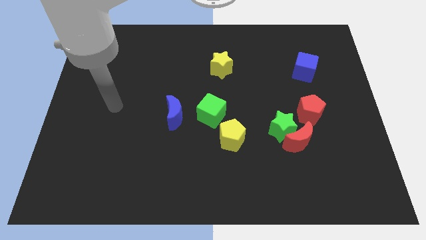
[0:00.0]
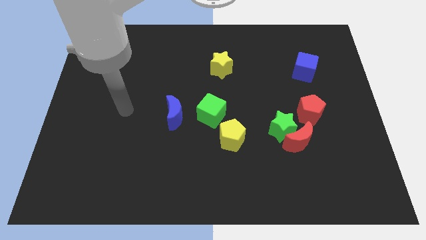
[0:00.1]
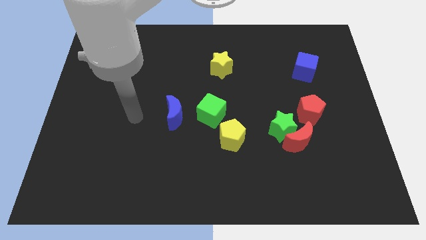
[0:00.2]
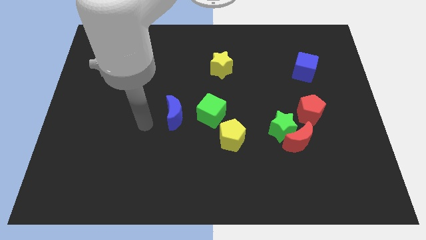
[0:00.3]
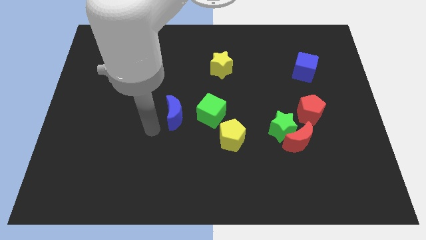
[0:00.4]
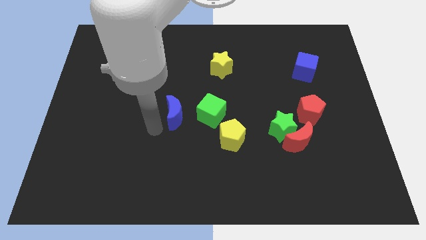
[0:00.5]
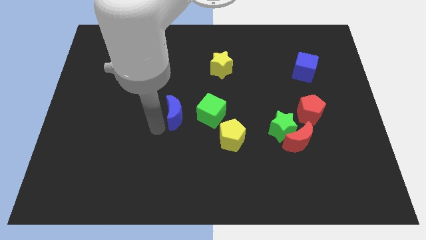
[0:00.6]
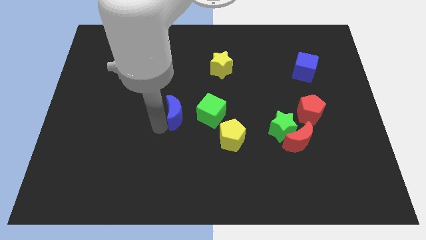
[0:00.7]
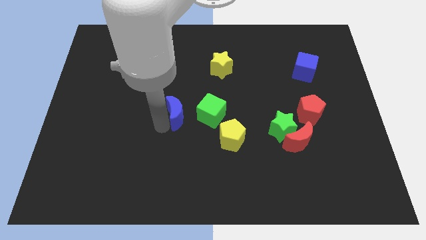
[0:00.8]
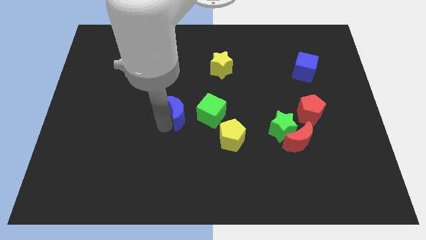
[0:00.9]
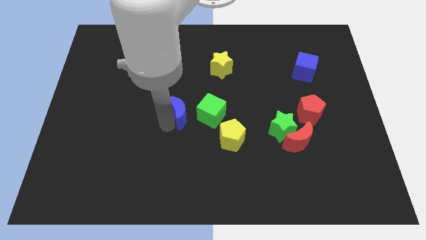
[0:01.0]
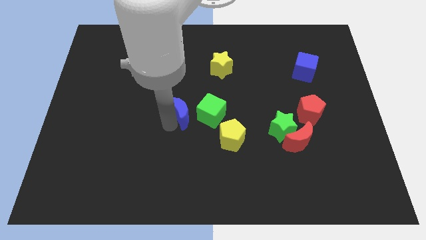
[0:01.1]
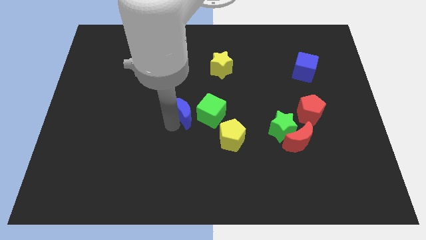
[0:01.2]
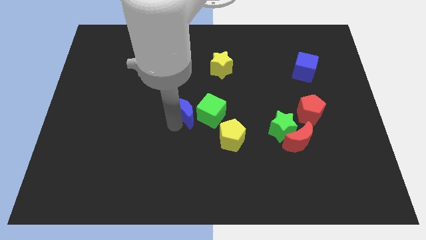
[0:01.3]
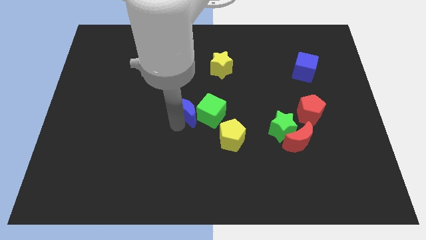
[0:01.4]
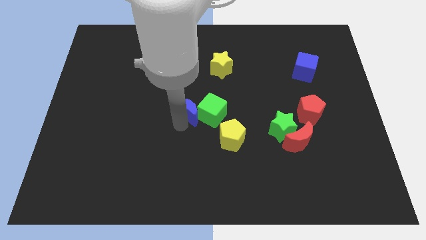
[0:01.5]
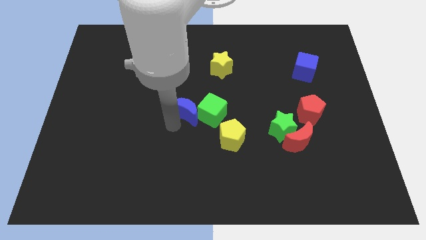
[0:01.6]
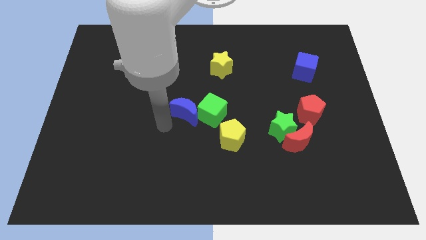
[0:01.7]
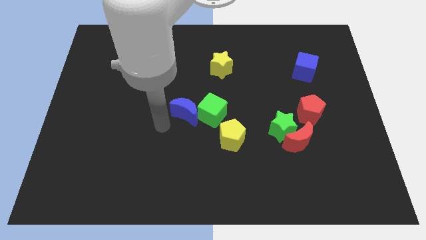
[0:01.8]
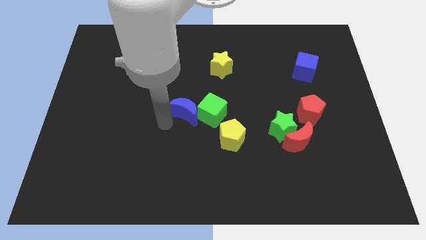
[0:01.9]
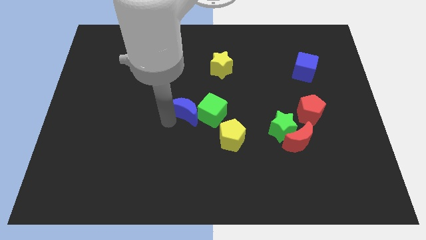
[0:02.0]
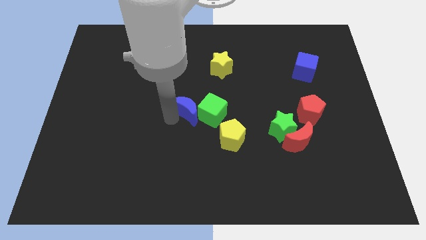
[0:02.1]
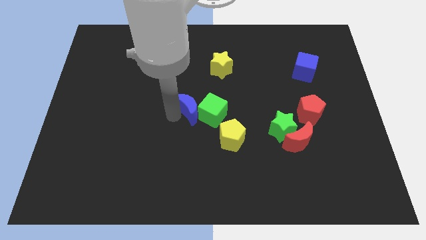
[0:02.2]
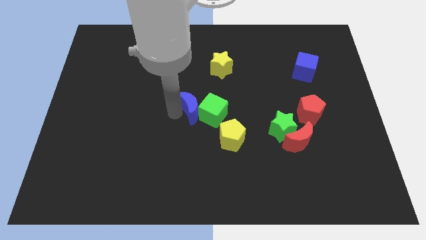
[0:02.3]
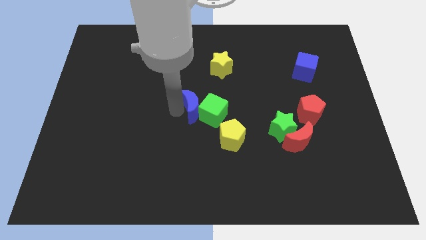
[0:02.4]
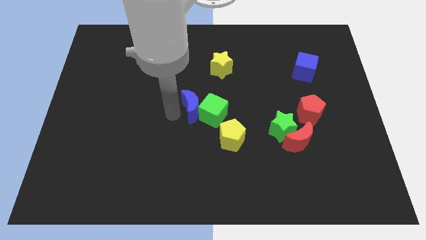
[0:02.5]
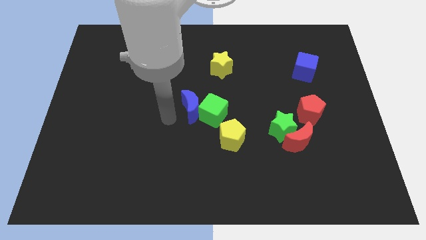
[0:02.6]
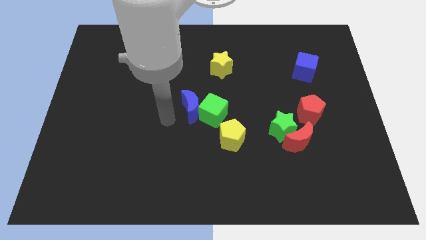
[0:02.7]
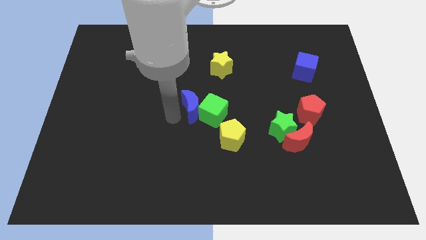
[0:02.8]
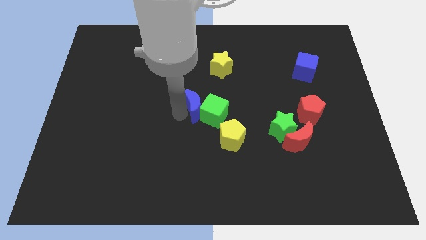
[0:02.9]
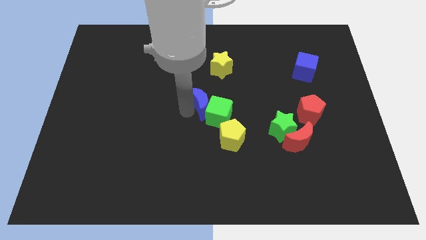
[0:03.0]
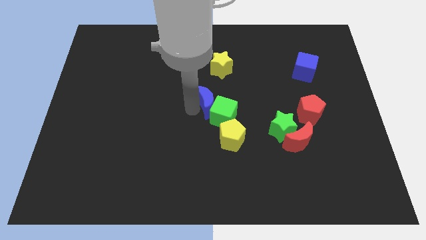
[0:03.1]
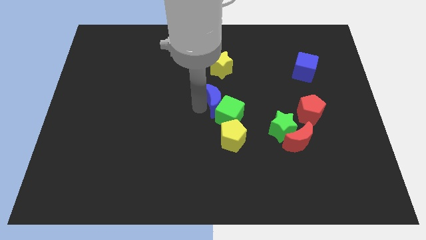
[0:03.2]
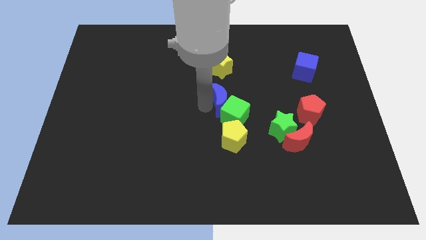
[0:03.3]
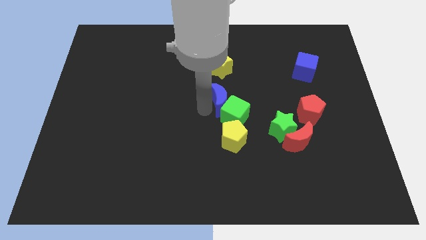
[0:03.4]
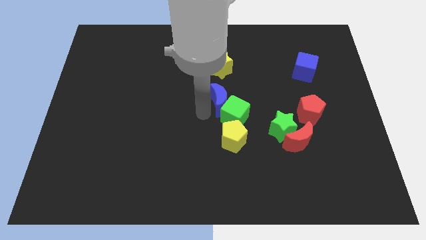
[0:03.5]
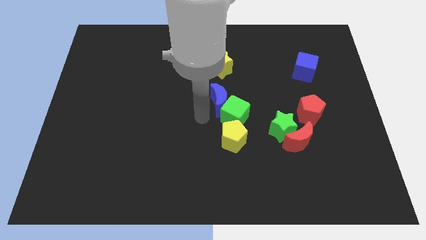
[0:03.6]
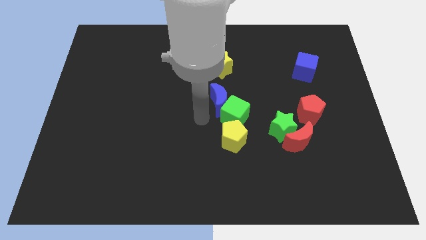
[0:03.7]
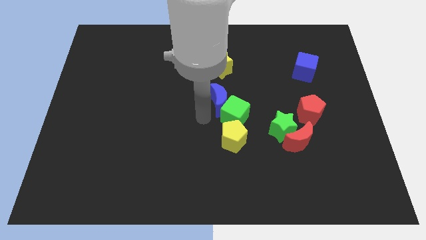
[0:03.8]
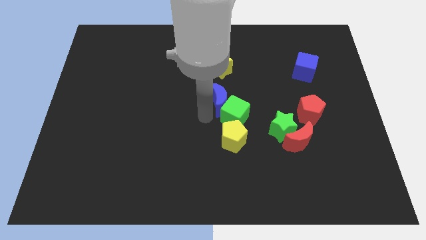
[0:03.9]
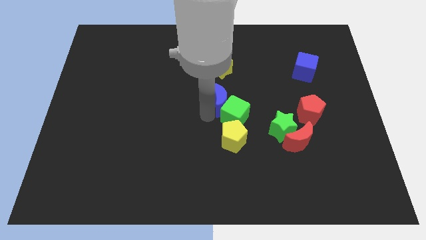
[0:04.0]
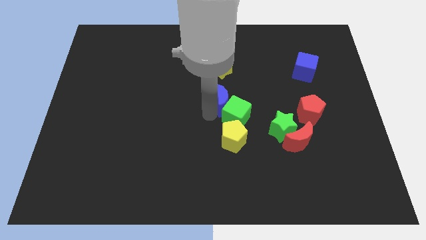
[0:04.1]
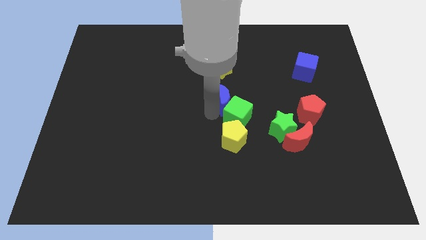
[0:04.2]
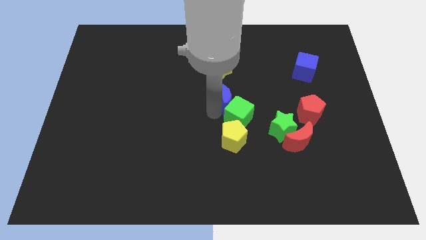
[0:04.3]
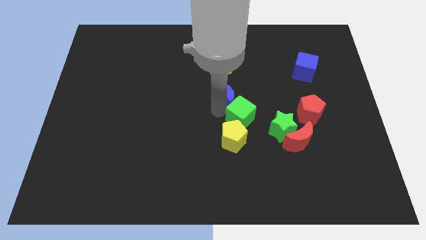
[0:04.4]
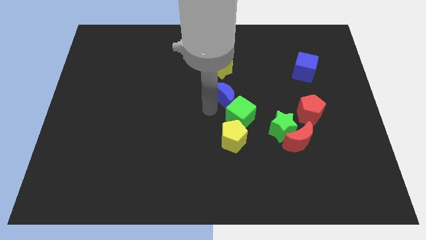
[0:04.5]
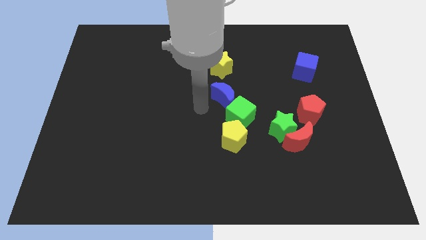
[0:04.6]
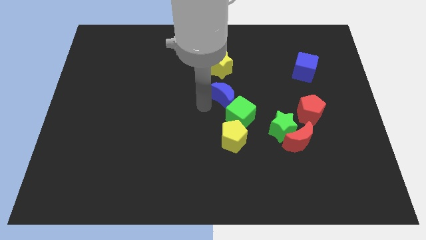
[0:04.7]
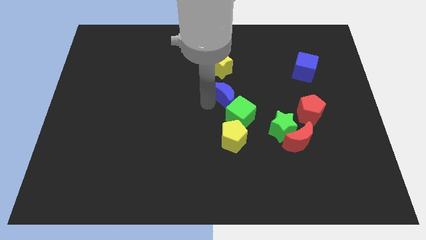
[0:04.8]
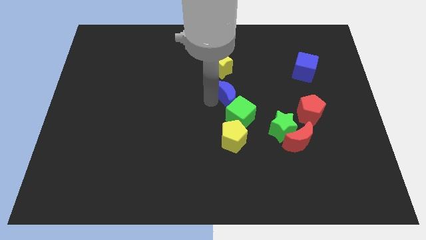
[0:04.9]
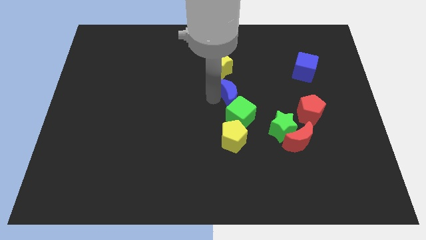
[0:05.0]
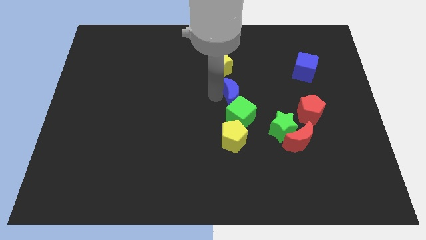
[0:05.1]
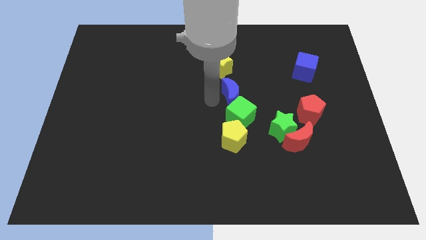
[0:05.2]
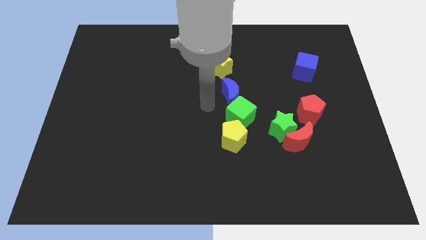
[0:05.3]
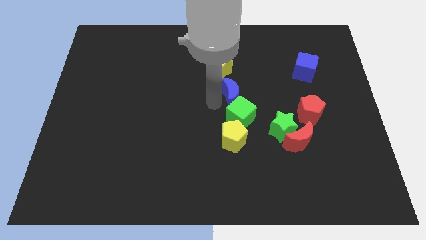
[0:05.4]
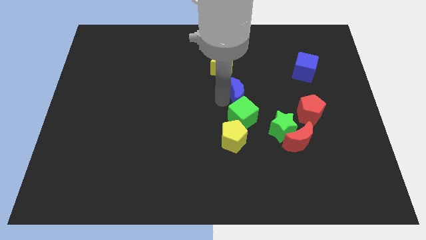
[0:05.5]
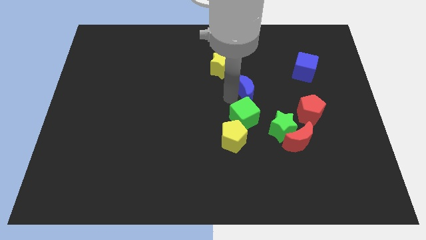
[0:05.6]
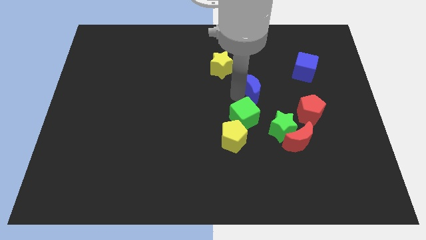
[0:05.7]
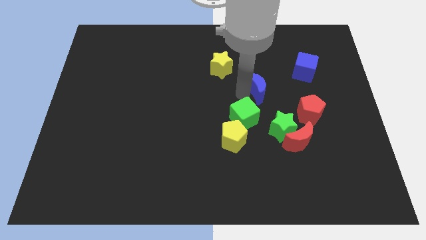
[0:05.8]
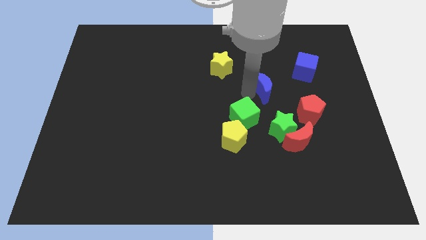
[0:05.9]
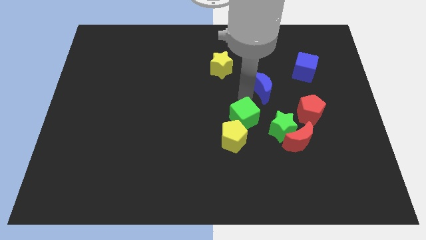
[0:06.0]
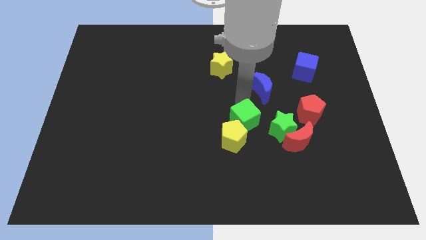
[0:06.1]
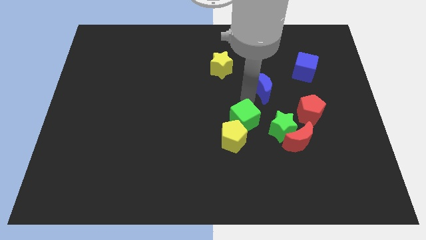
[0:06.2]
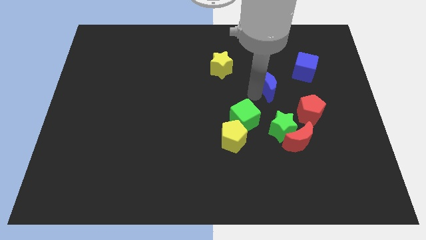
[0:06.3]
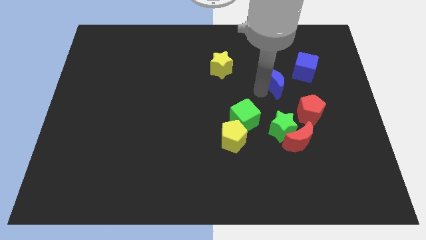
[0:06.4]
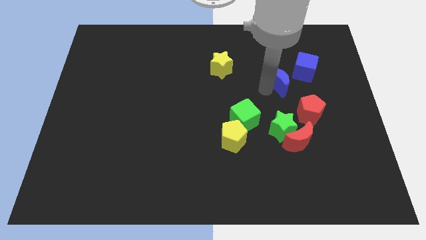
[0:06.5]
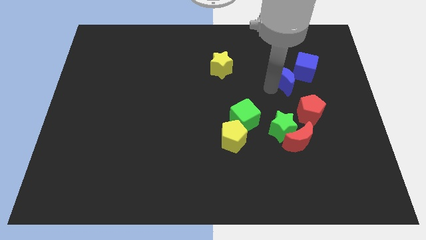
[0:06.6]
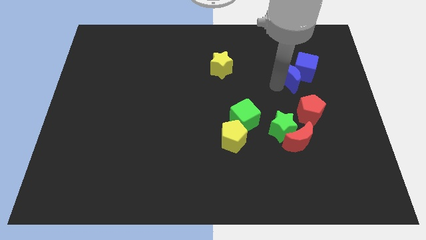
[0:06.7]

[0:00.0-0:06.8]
push the blue moon next to the blue cube

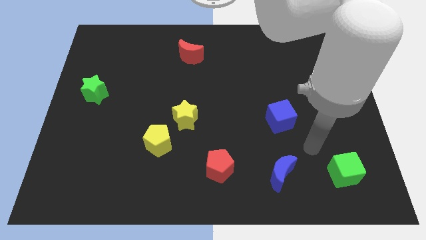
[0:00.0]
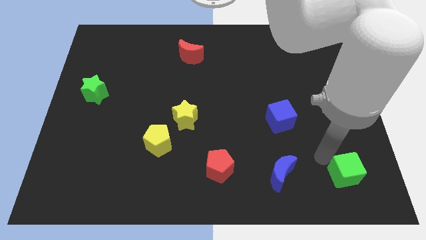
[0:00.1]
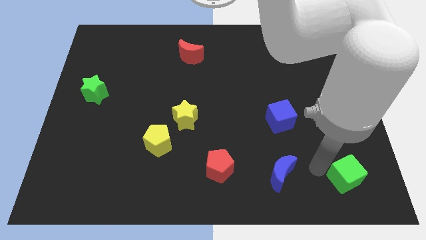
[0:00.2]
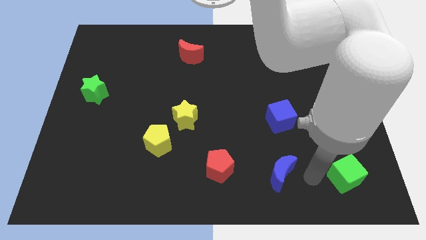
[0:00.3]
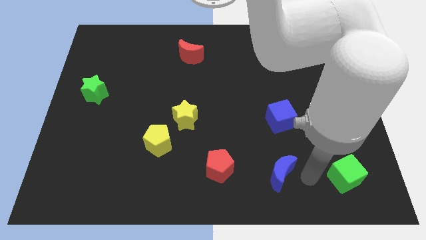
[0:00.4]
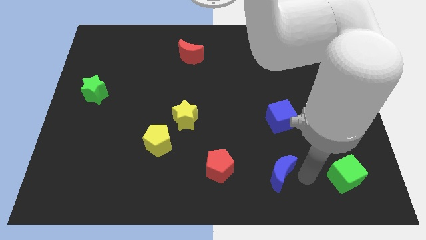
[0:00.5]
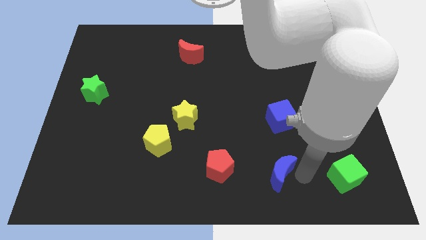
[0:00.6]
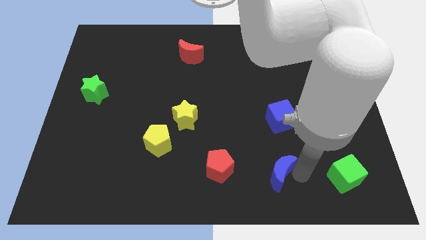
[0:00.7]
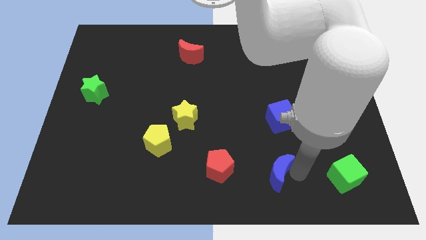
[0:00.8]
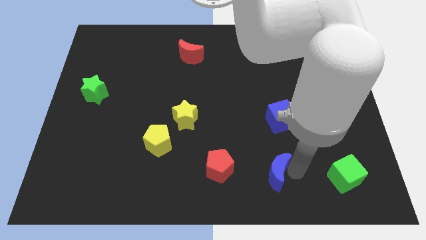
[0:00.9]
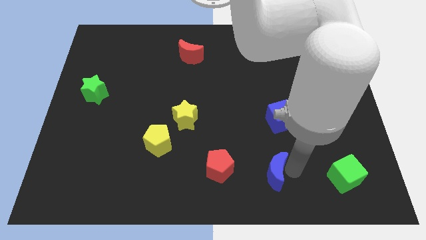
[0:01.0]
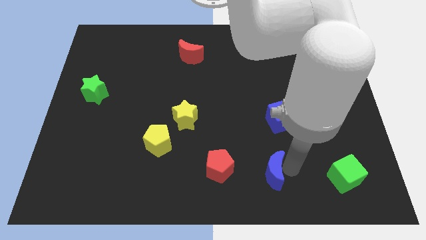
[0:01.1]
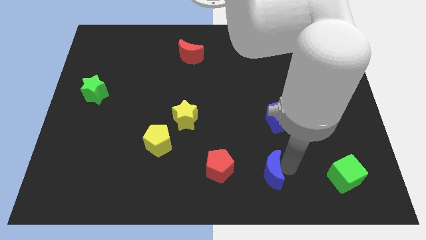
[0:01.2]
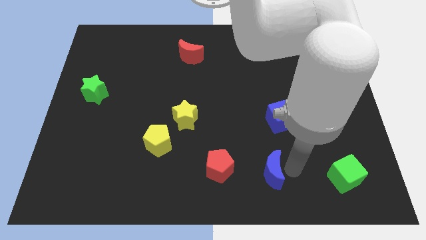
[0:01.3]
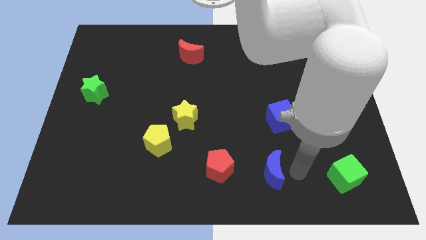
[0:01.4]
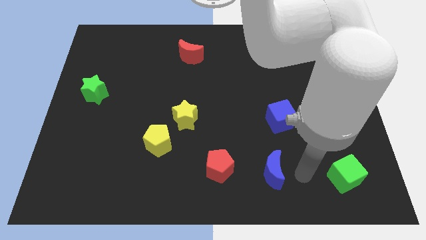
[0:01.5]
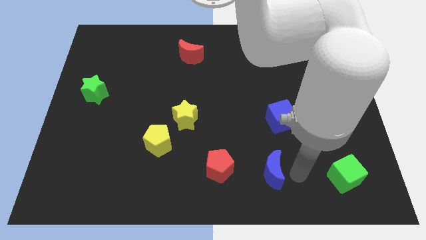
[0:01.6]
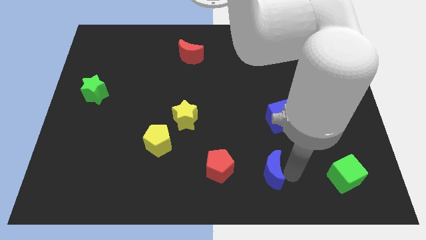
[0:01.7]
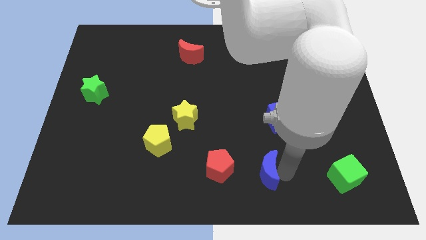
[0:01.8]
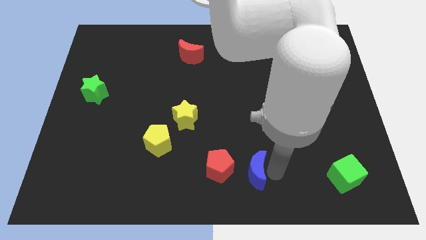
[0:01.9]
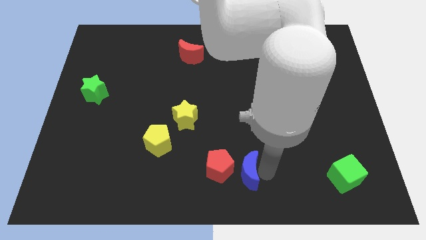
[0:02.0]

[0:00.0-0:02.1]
put the blue moon close to the red pentagon
